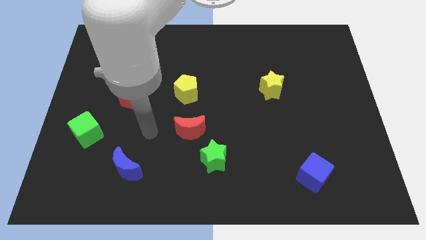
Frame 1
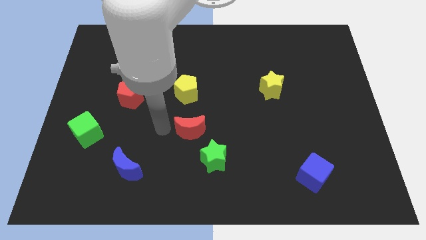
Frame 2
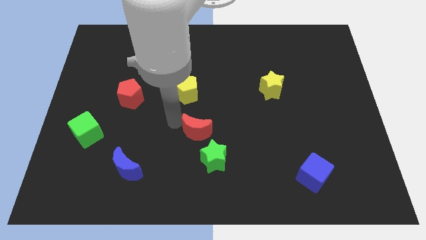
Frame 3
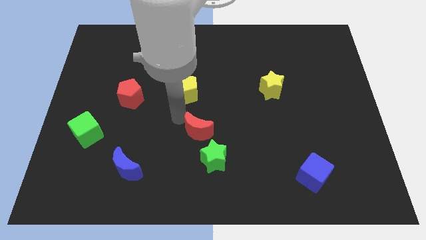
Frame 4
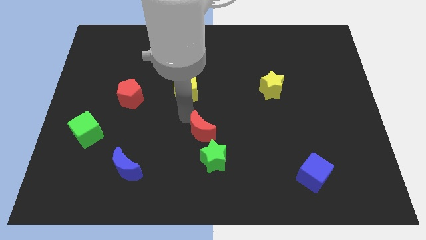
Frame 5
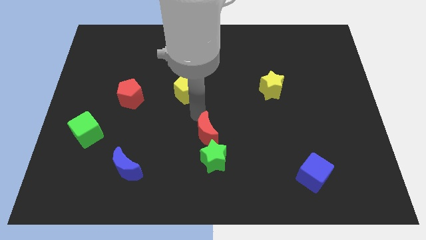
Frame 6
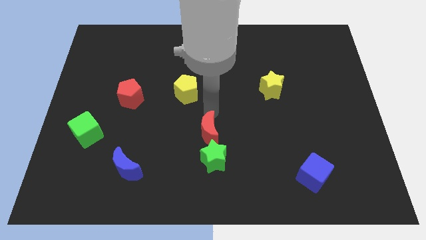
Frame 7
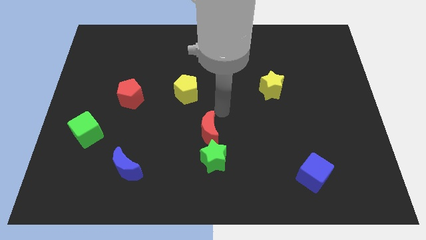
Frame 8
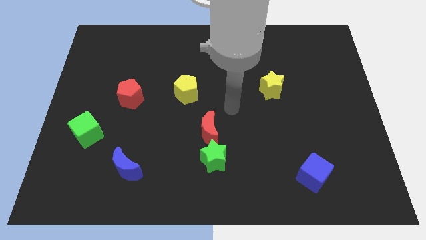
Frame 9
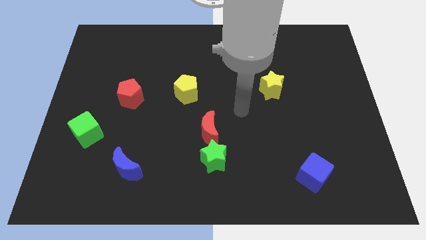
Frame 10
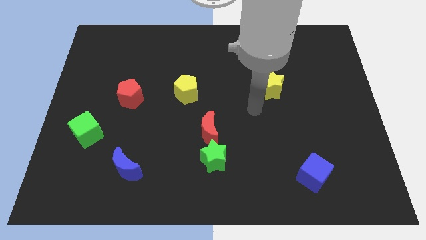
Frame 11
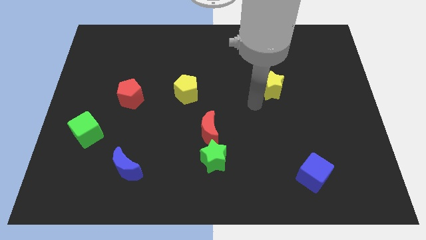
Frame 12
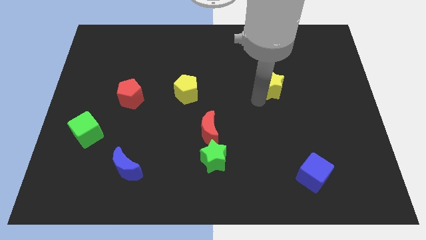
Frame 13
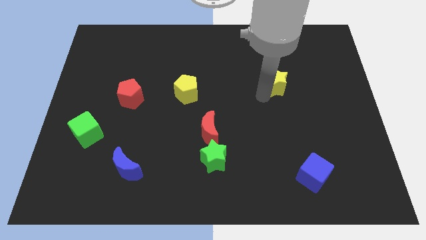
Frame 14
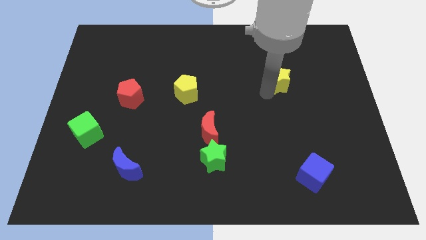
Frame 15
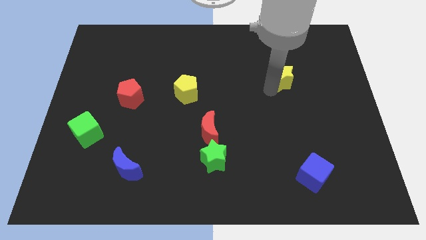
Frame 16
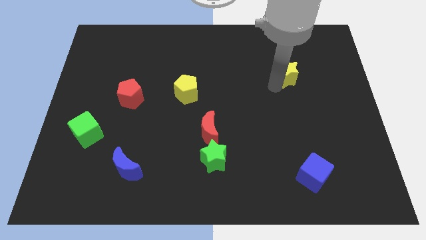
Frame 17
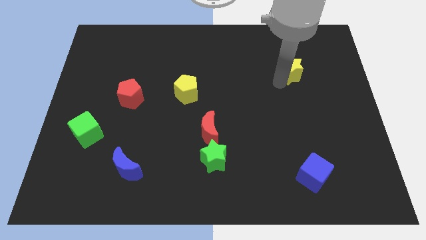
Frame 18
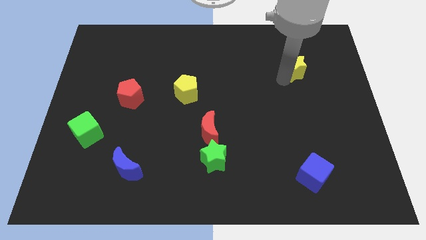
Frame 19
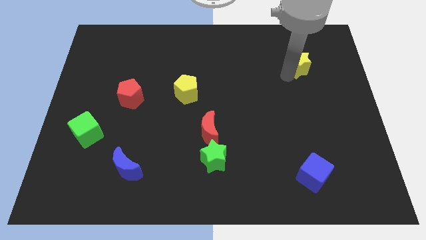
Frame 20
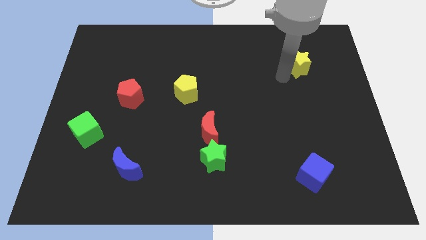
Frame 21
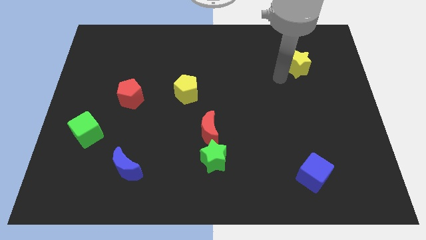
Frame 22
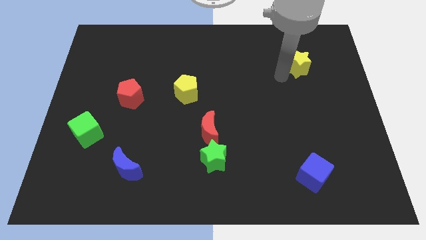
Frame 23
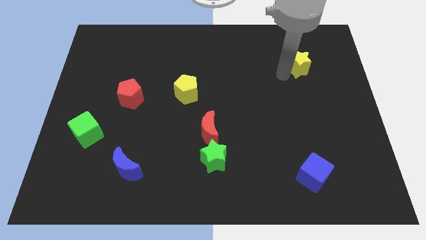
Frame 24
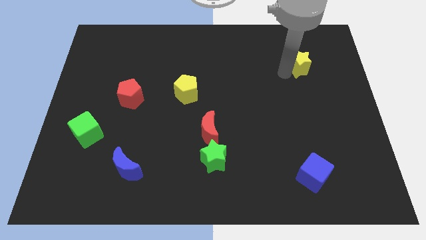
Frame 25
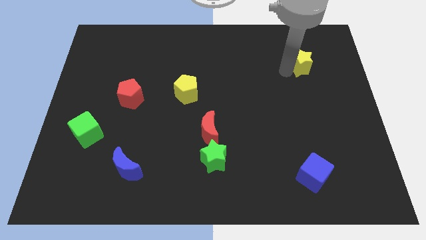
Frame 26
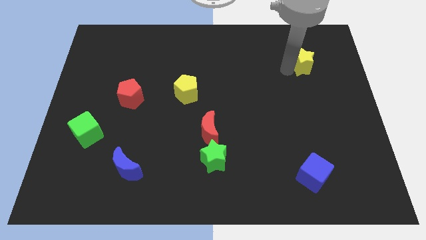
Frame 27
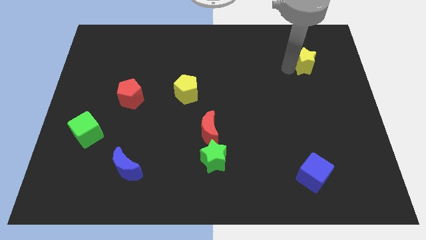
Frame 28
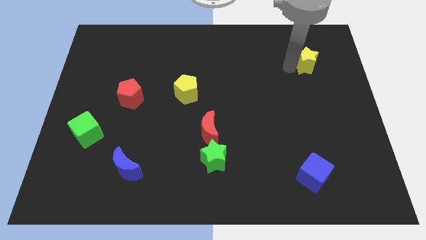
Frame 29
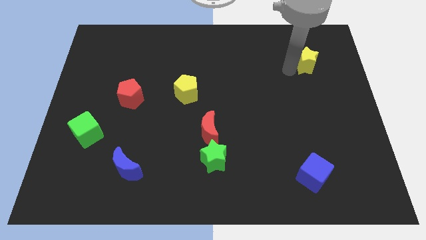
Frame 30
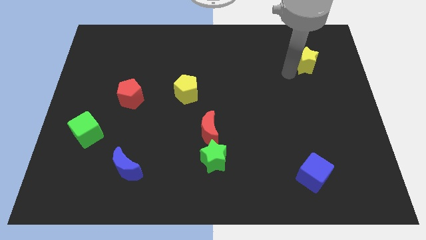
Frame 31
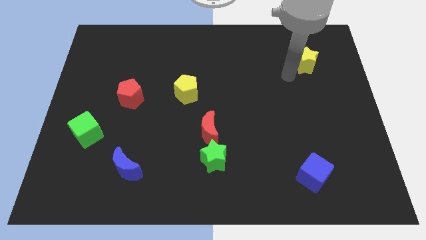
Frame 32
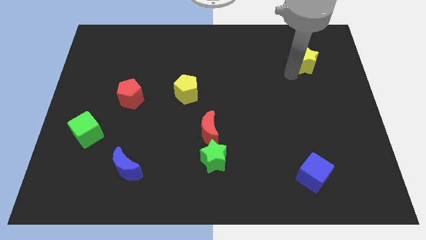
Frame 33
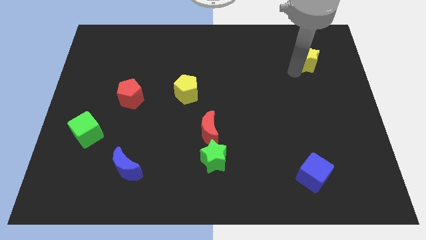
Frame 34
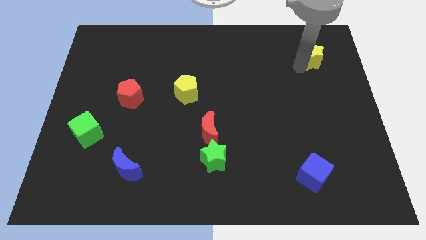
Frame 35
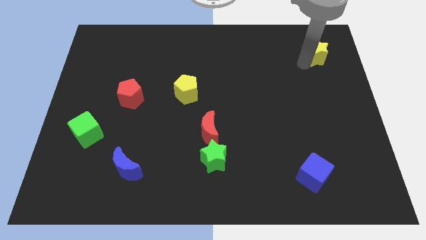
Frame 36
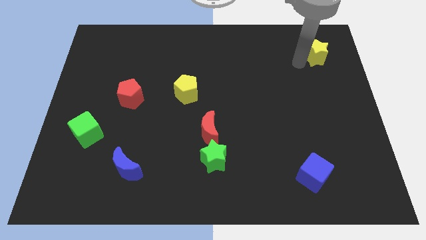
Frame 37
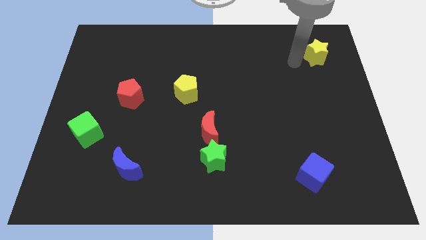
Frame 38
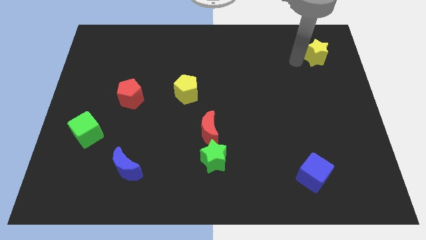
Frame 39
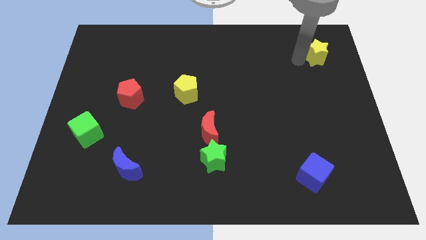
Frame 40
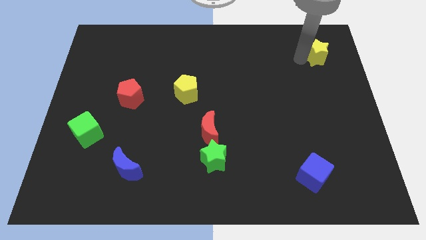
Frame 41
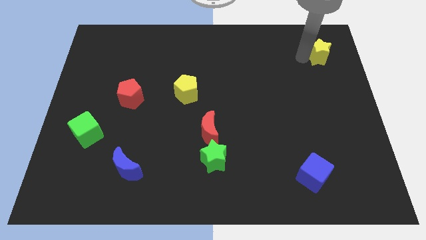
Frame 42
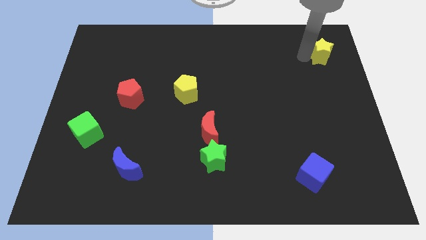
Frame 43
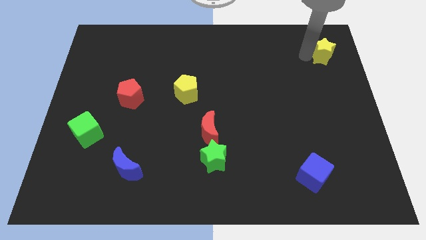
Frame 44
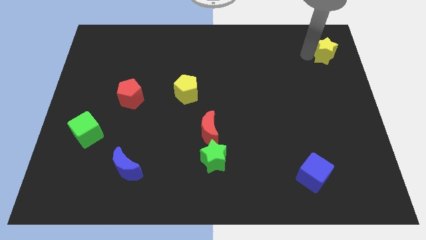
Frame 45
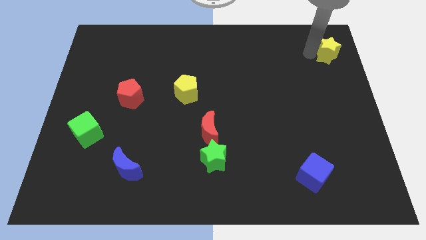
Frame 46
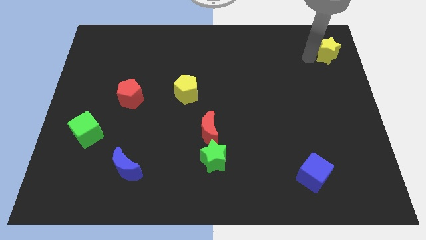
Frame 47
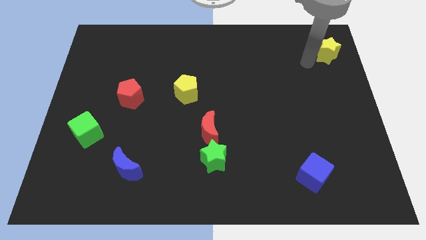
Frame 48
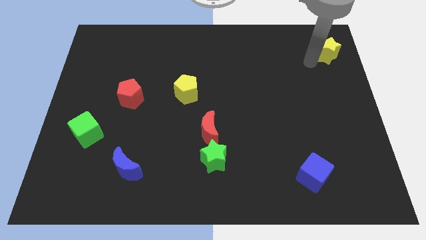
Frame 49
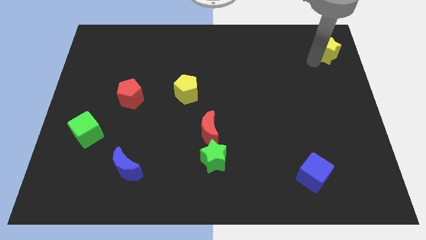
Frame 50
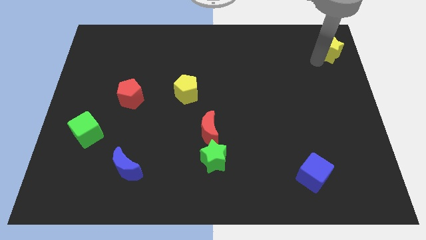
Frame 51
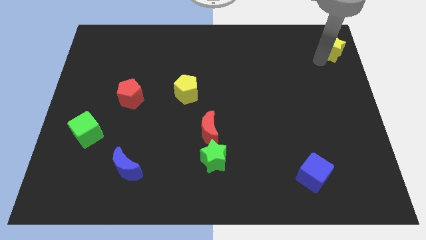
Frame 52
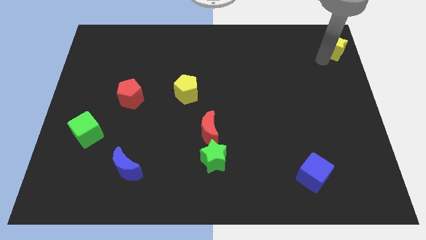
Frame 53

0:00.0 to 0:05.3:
slide the yellow star to the upper right corner
